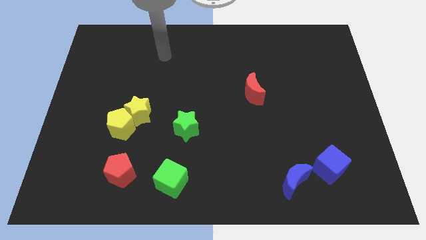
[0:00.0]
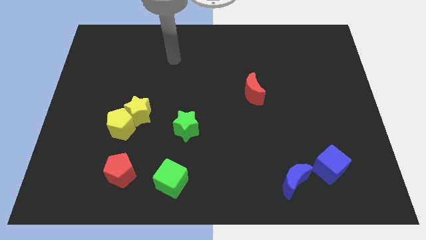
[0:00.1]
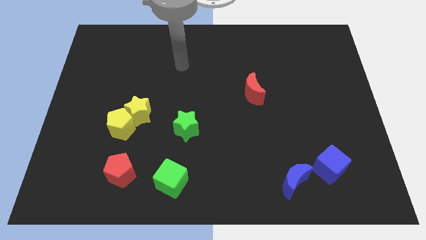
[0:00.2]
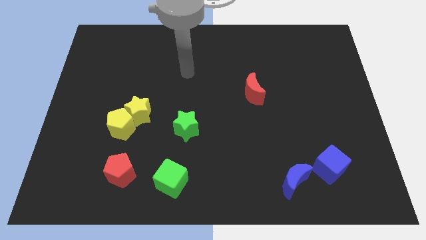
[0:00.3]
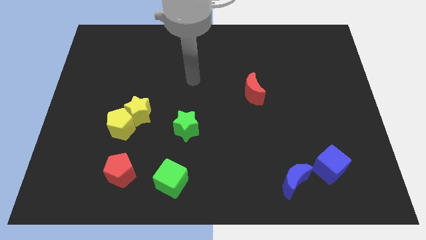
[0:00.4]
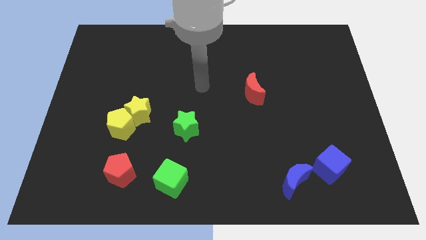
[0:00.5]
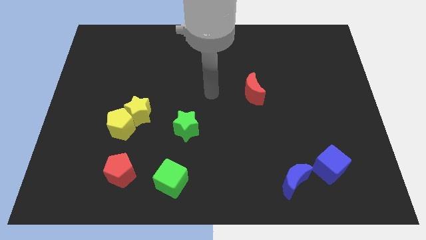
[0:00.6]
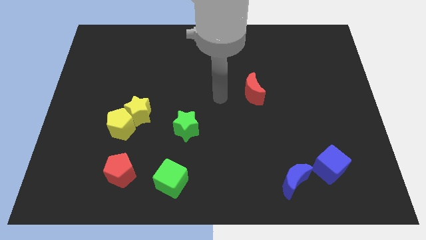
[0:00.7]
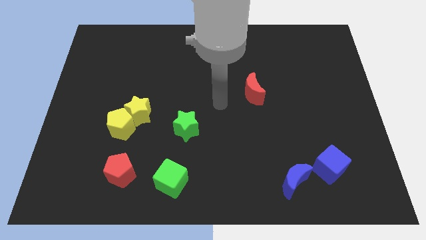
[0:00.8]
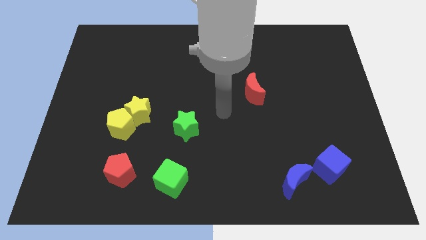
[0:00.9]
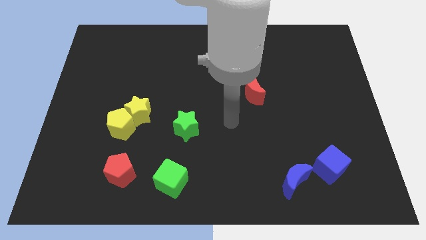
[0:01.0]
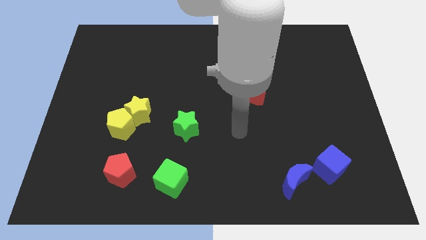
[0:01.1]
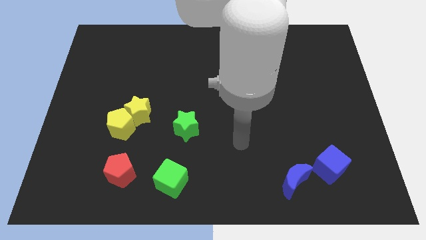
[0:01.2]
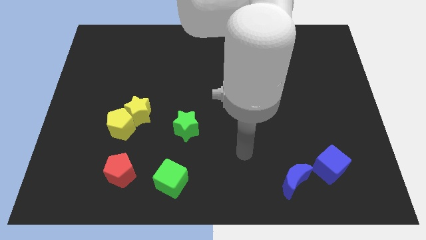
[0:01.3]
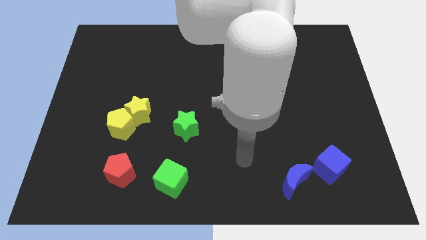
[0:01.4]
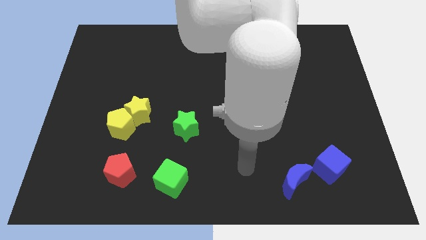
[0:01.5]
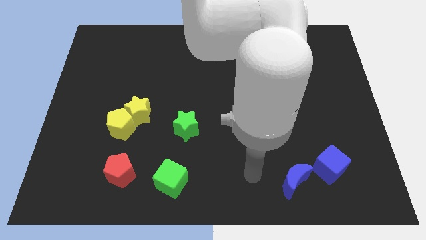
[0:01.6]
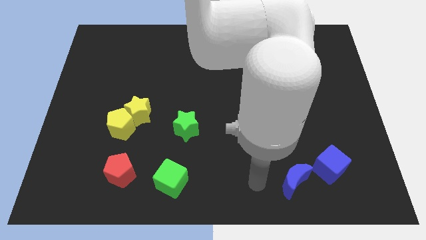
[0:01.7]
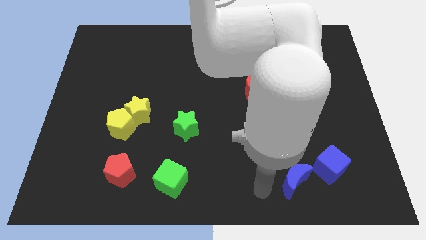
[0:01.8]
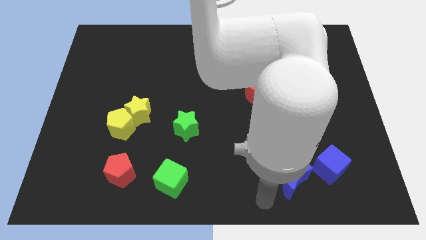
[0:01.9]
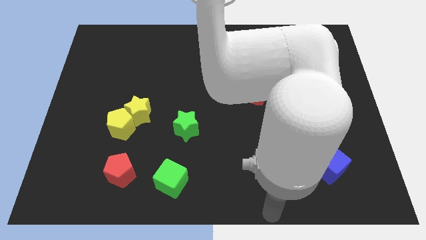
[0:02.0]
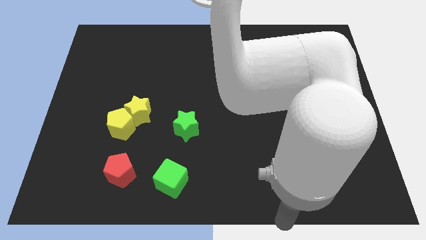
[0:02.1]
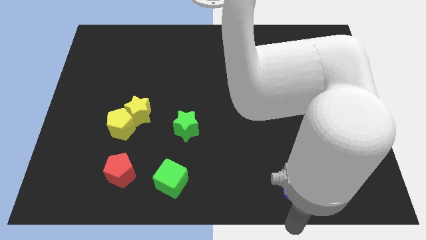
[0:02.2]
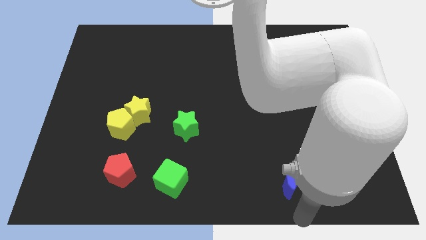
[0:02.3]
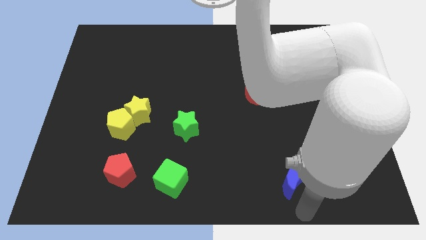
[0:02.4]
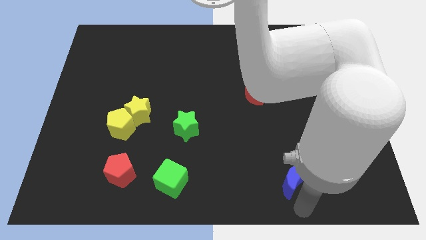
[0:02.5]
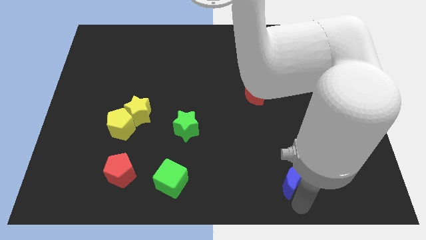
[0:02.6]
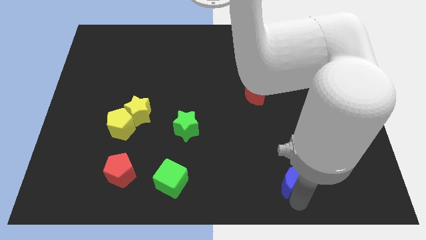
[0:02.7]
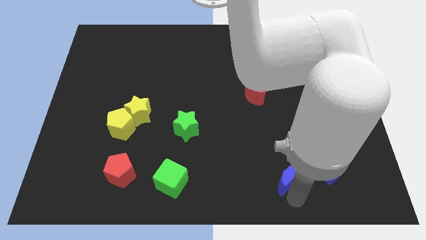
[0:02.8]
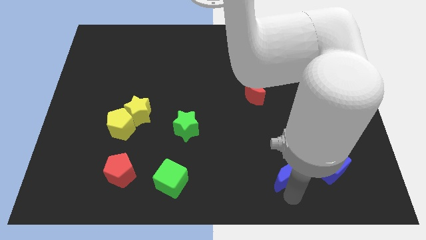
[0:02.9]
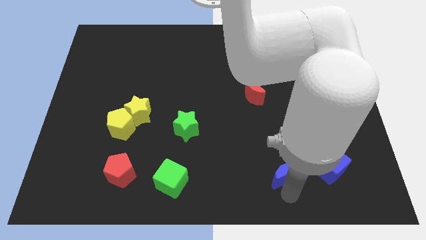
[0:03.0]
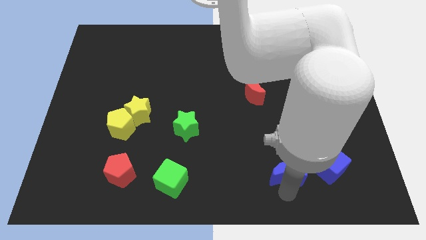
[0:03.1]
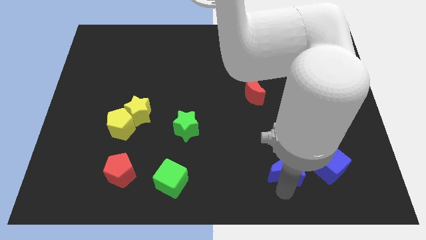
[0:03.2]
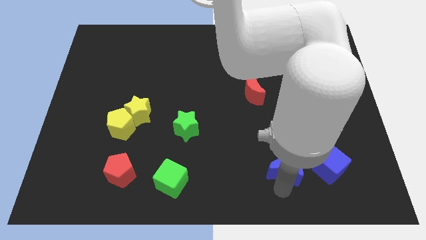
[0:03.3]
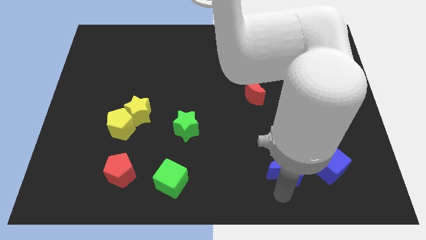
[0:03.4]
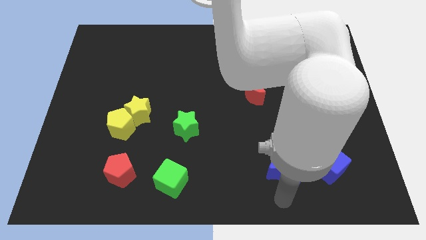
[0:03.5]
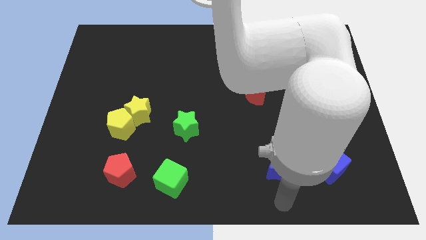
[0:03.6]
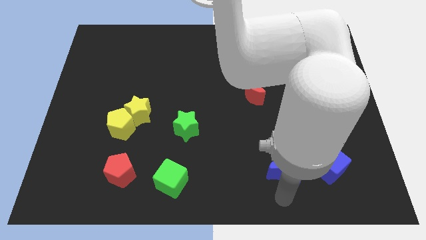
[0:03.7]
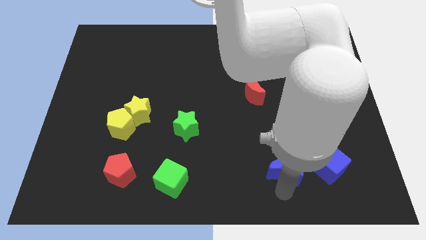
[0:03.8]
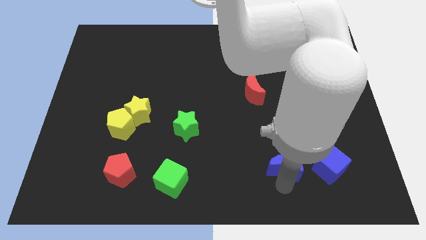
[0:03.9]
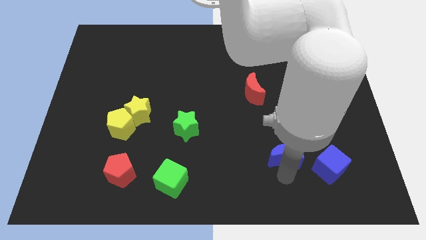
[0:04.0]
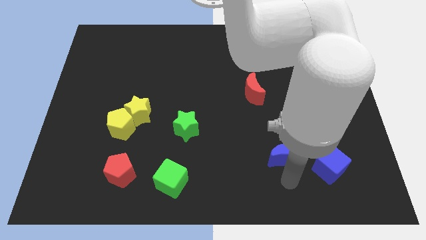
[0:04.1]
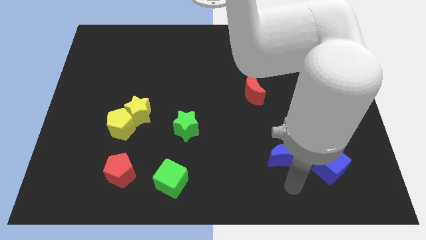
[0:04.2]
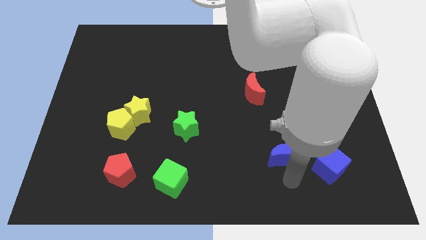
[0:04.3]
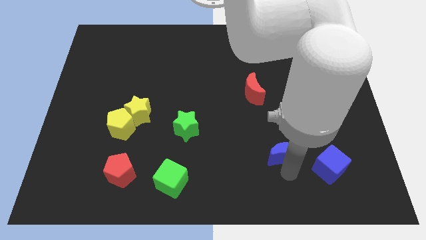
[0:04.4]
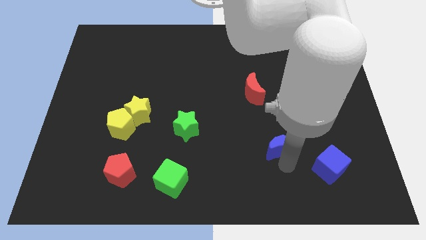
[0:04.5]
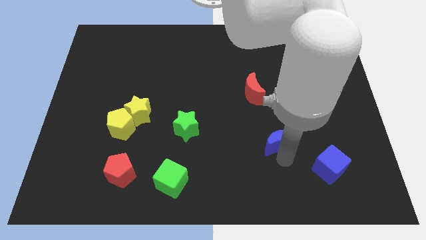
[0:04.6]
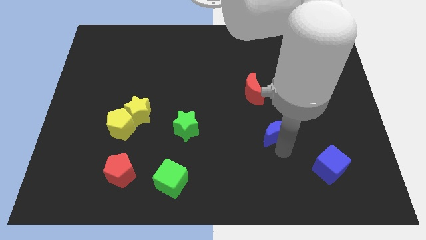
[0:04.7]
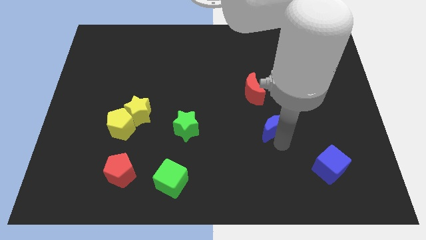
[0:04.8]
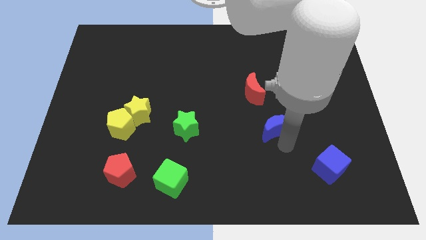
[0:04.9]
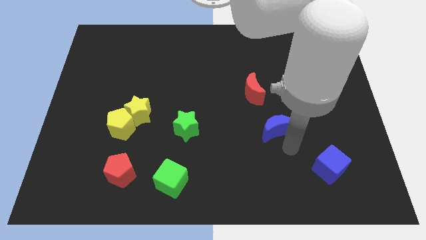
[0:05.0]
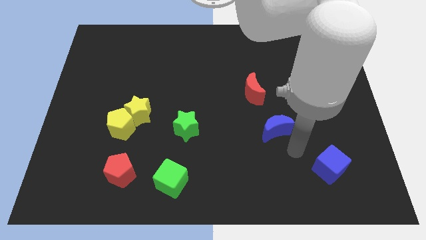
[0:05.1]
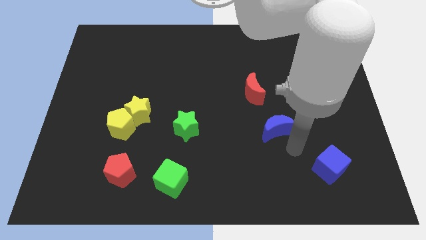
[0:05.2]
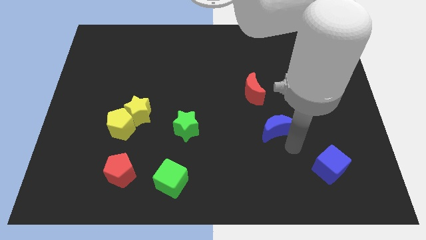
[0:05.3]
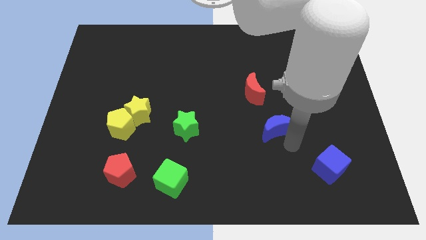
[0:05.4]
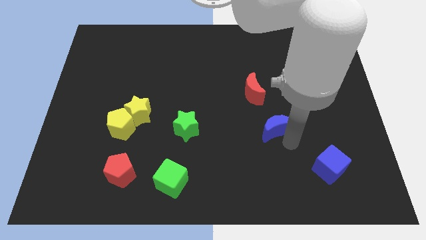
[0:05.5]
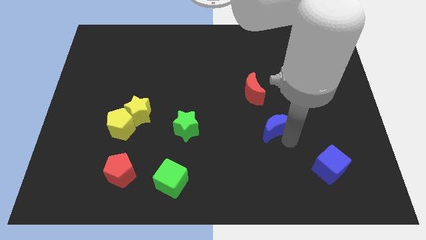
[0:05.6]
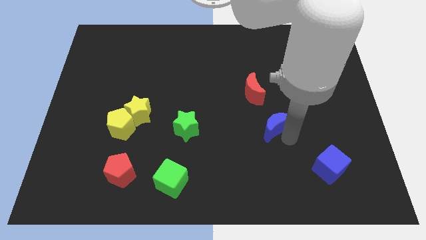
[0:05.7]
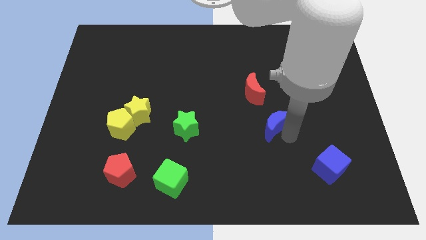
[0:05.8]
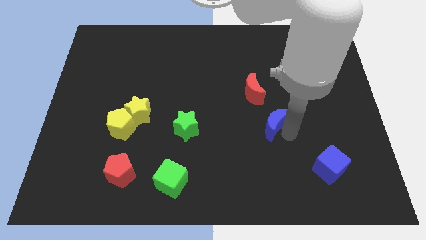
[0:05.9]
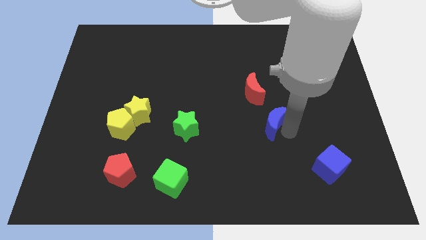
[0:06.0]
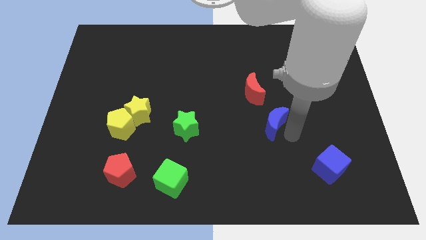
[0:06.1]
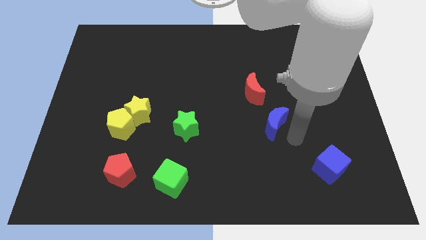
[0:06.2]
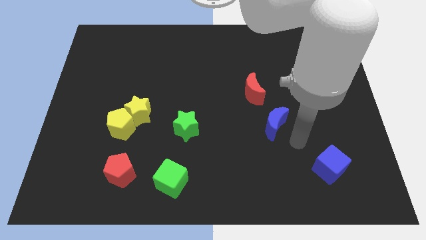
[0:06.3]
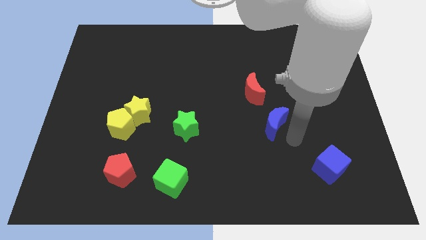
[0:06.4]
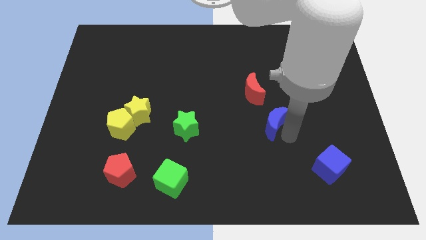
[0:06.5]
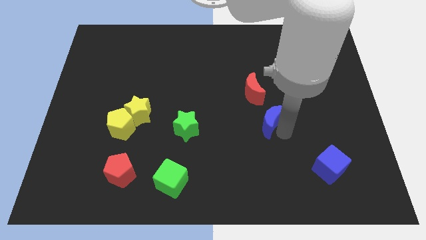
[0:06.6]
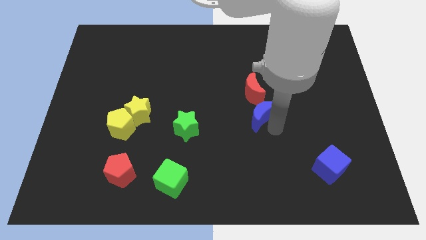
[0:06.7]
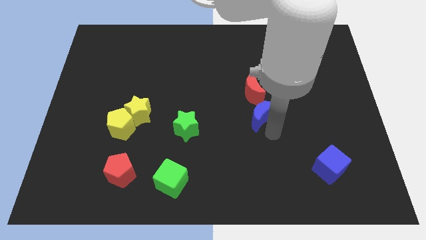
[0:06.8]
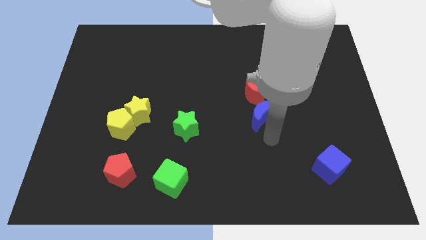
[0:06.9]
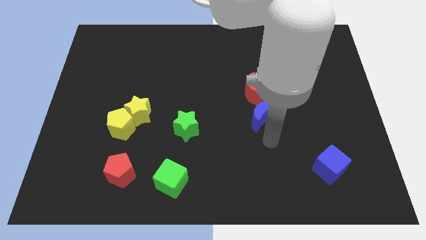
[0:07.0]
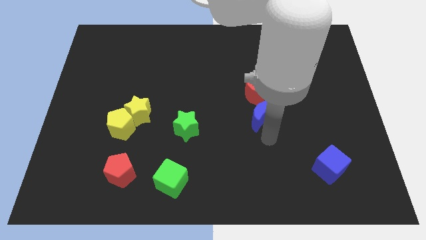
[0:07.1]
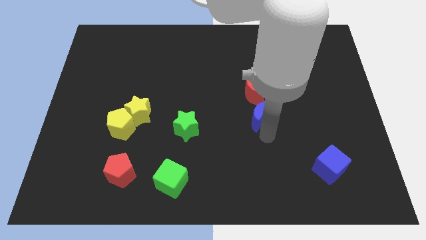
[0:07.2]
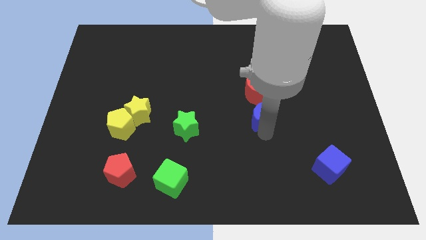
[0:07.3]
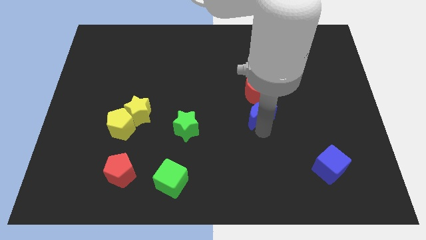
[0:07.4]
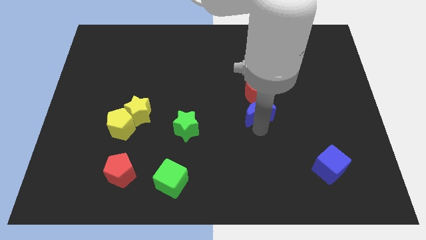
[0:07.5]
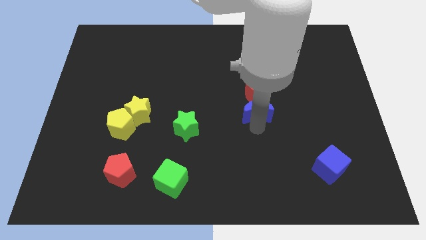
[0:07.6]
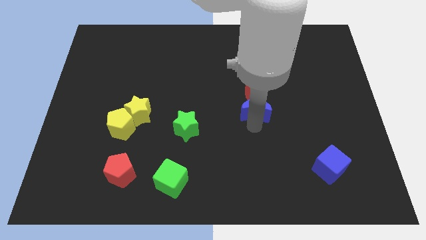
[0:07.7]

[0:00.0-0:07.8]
slide the blue moon towards the red moon
